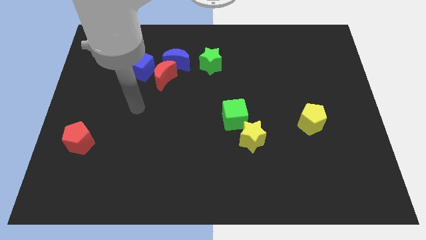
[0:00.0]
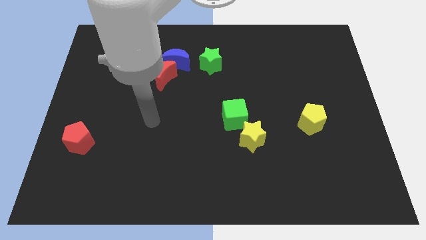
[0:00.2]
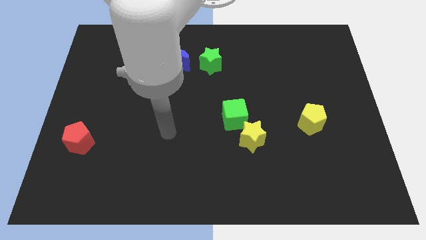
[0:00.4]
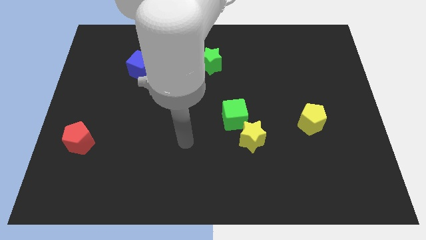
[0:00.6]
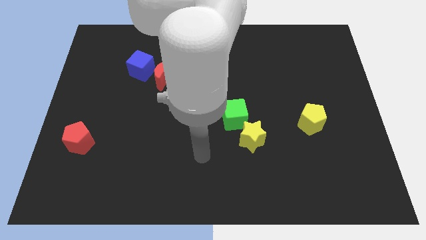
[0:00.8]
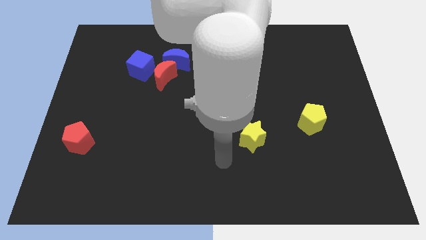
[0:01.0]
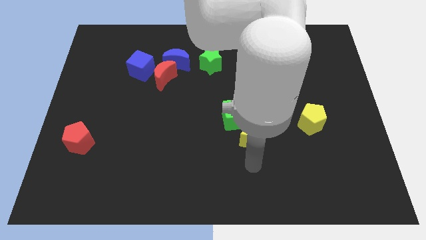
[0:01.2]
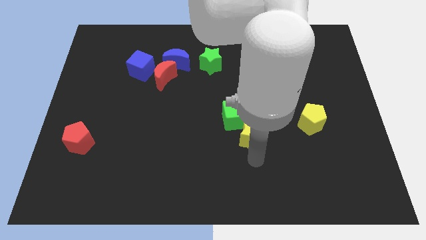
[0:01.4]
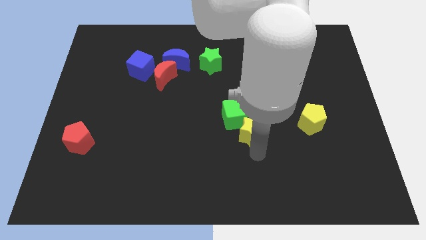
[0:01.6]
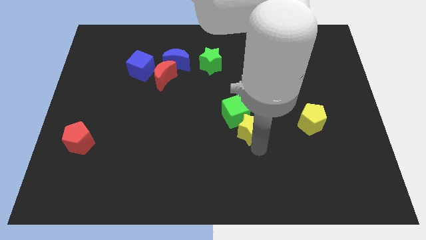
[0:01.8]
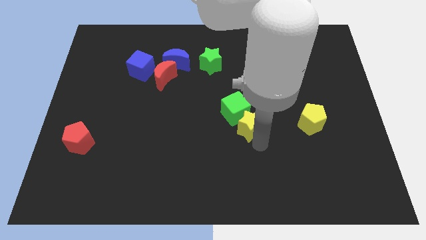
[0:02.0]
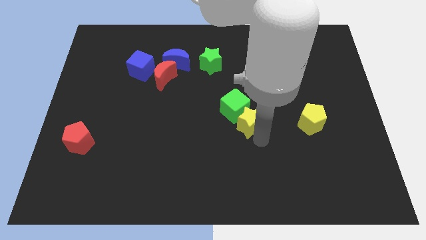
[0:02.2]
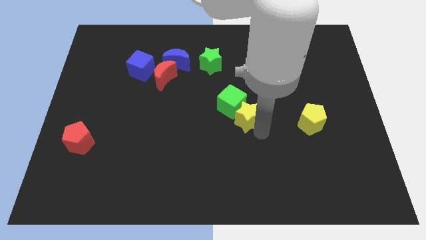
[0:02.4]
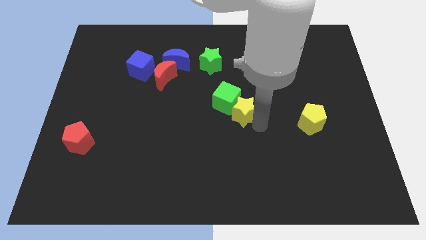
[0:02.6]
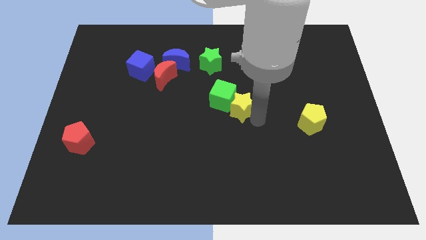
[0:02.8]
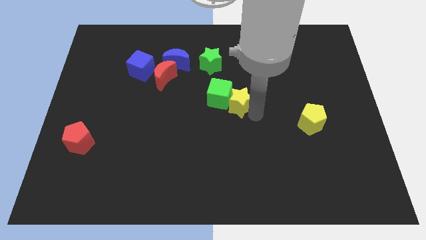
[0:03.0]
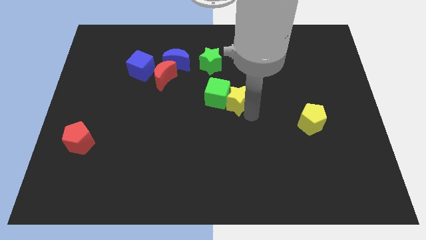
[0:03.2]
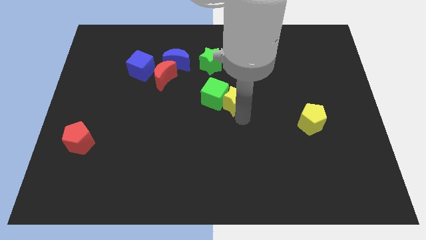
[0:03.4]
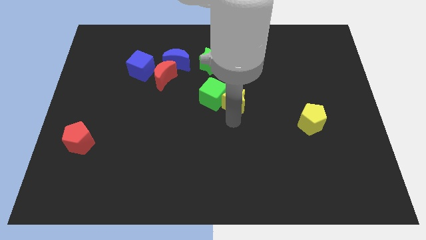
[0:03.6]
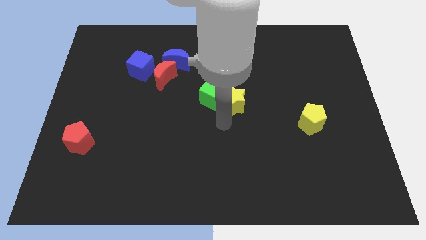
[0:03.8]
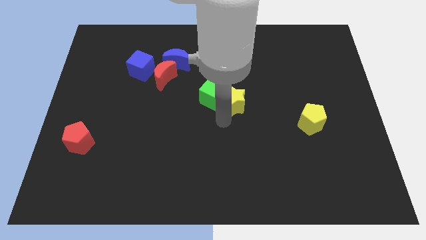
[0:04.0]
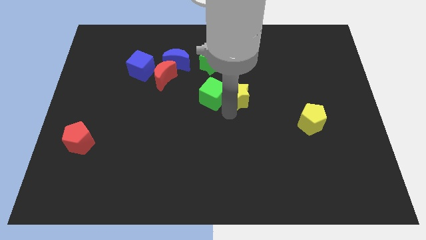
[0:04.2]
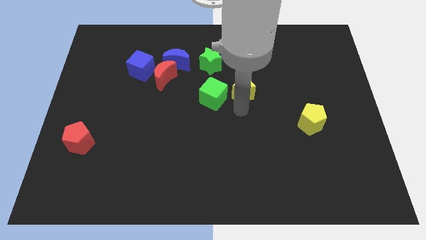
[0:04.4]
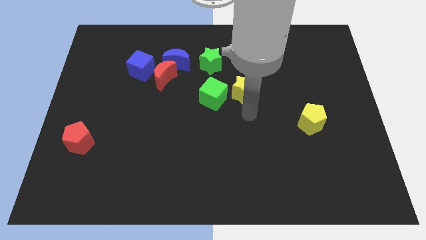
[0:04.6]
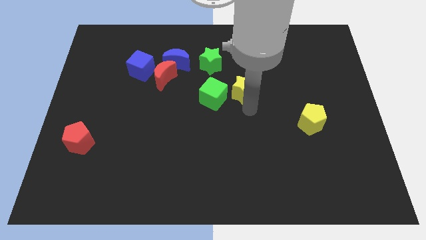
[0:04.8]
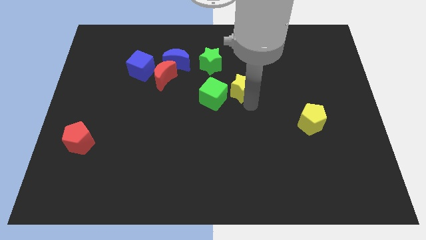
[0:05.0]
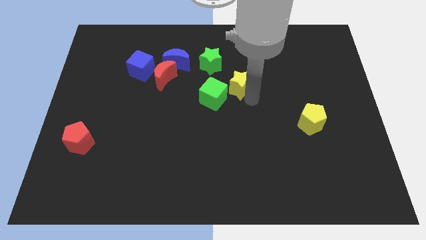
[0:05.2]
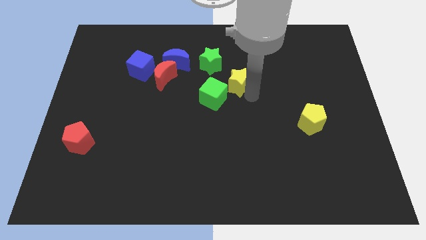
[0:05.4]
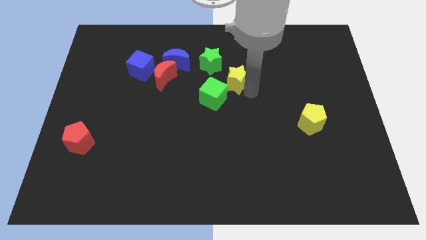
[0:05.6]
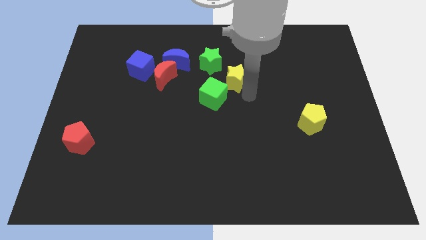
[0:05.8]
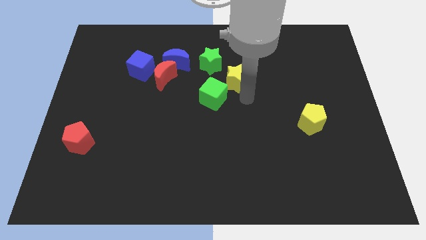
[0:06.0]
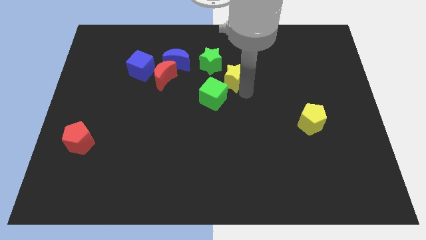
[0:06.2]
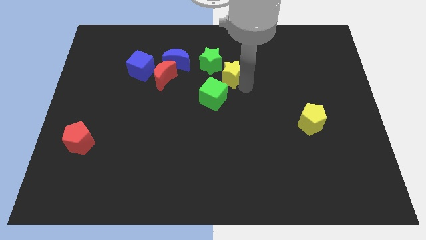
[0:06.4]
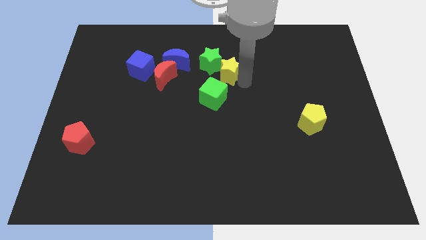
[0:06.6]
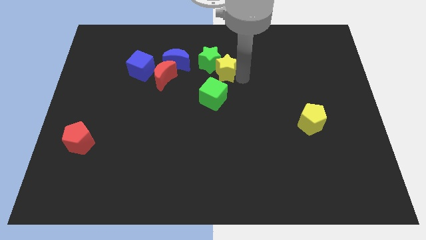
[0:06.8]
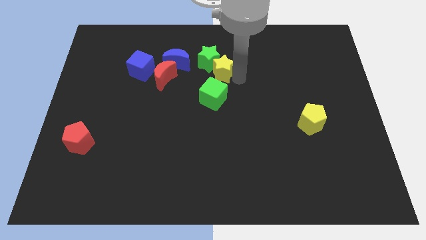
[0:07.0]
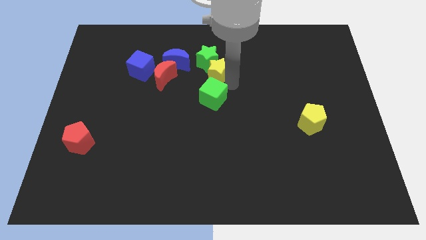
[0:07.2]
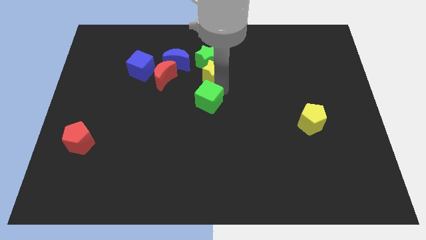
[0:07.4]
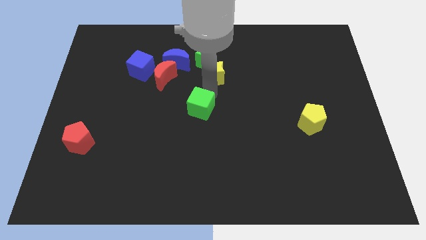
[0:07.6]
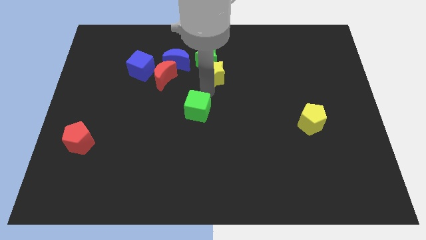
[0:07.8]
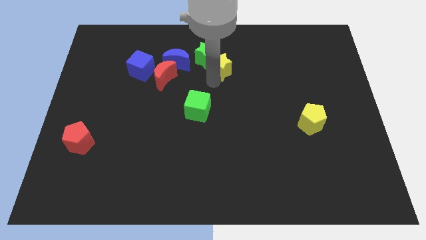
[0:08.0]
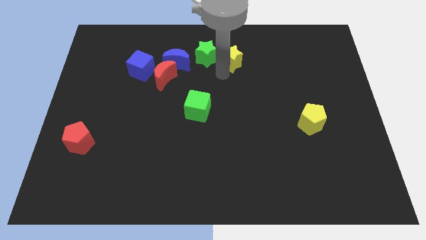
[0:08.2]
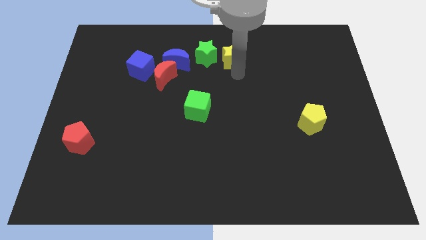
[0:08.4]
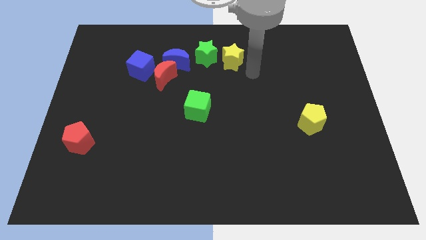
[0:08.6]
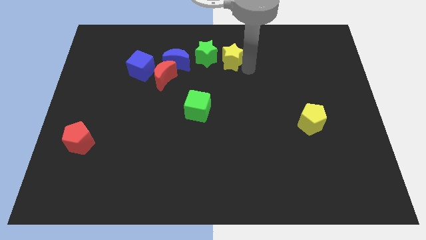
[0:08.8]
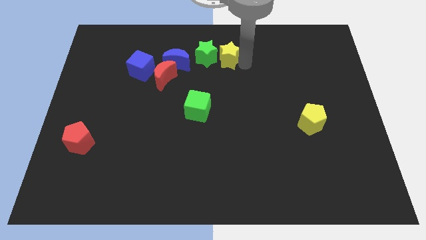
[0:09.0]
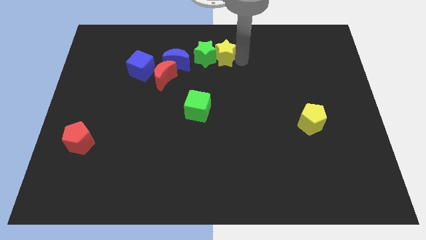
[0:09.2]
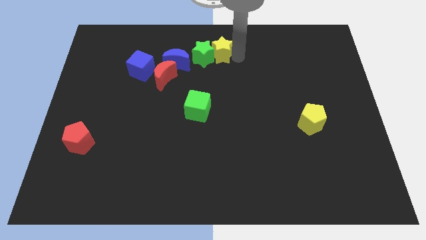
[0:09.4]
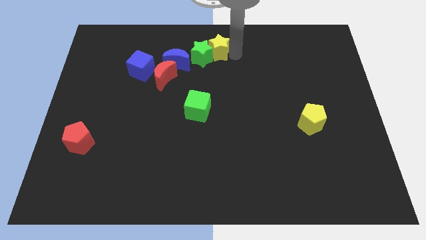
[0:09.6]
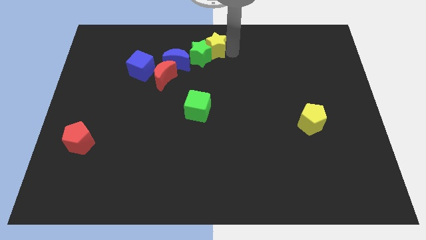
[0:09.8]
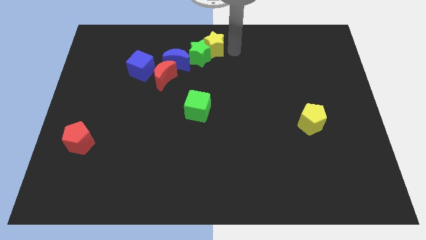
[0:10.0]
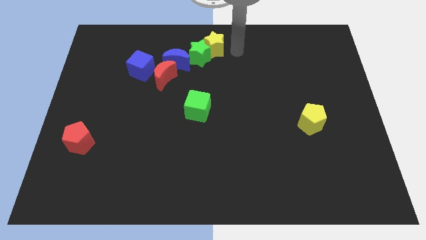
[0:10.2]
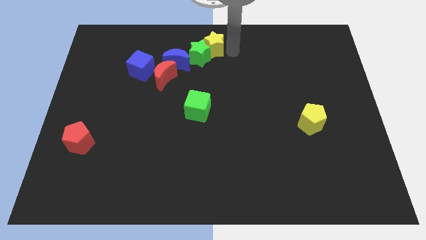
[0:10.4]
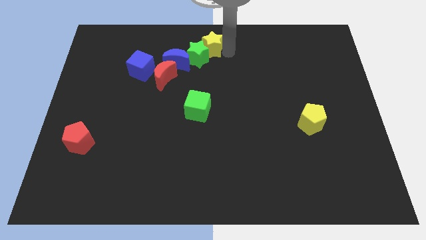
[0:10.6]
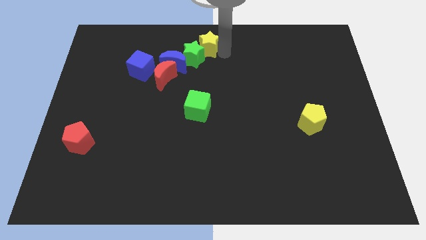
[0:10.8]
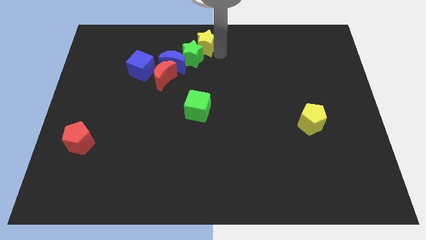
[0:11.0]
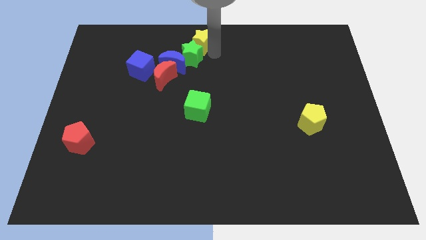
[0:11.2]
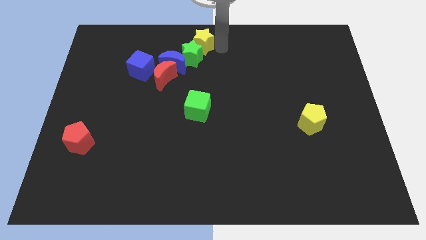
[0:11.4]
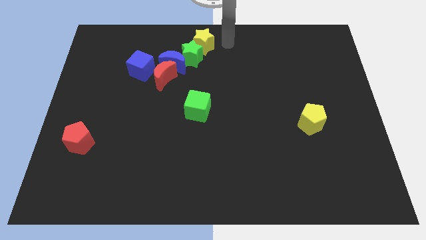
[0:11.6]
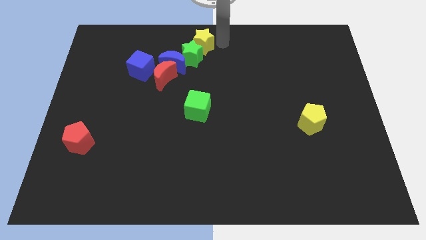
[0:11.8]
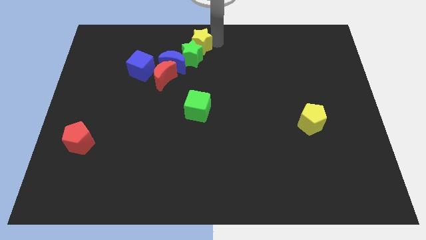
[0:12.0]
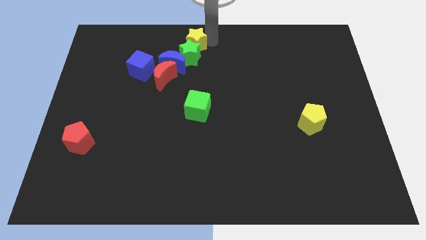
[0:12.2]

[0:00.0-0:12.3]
slide the yellow star upwards and left diagonally

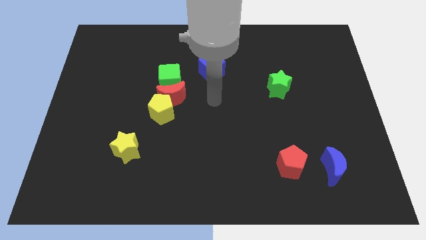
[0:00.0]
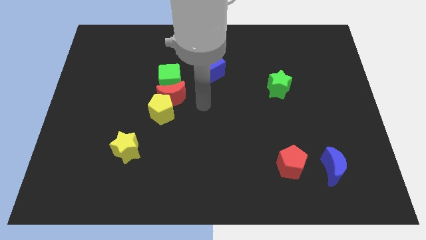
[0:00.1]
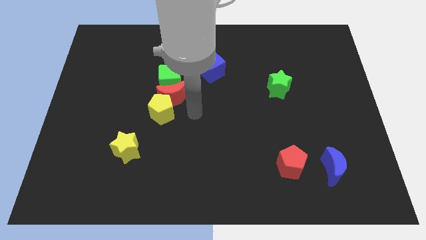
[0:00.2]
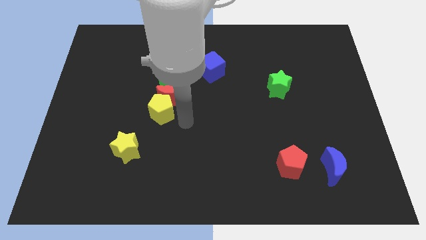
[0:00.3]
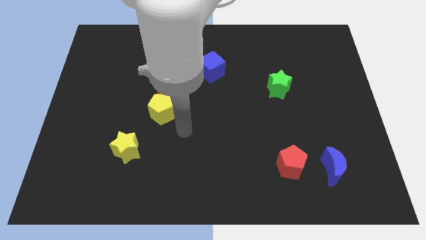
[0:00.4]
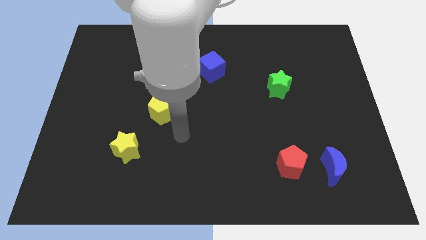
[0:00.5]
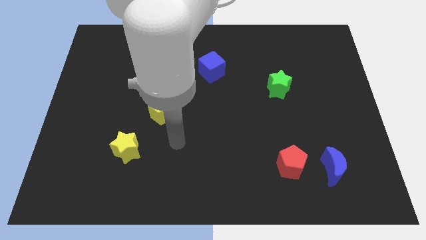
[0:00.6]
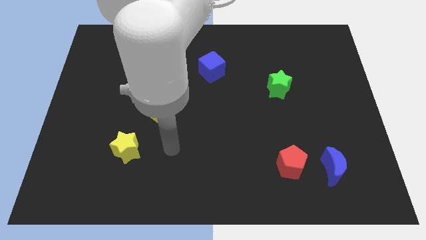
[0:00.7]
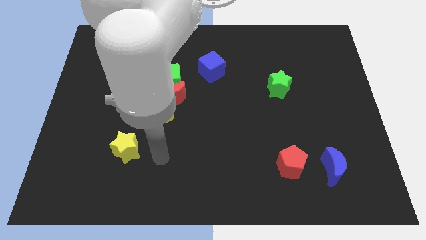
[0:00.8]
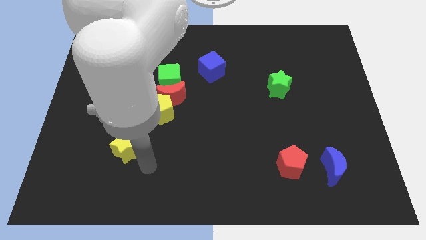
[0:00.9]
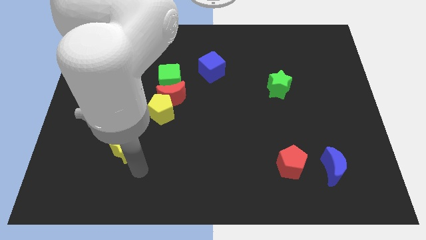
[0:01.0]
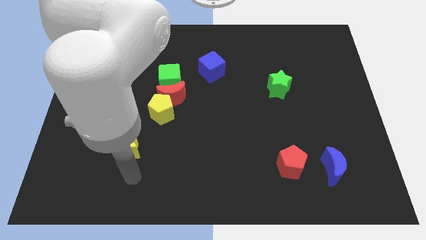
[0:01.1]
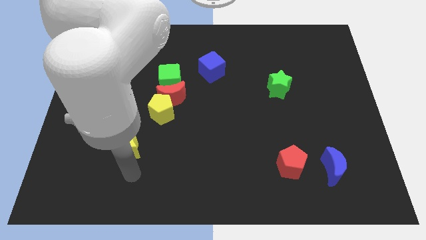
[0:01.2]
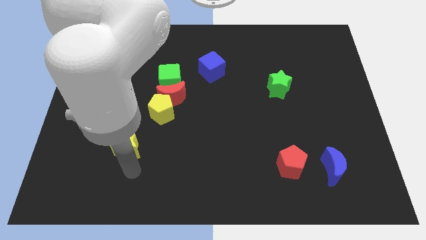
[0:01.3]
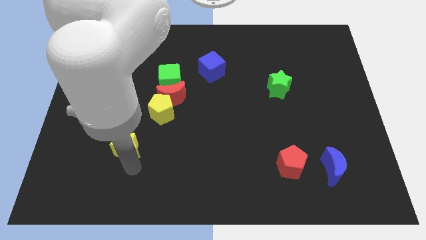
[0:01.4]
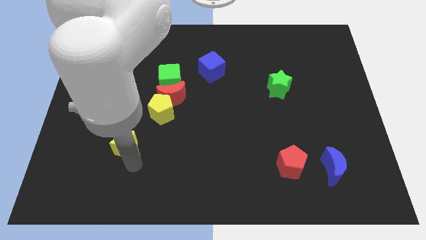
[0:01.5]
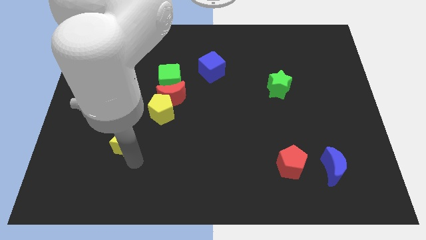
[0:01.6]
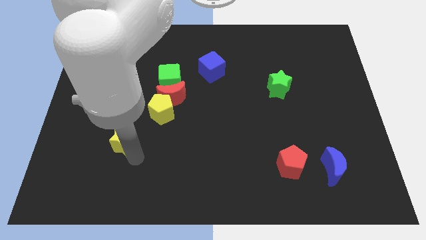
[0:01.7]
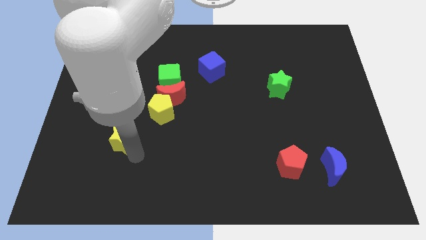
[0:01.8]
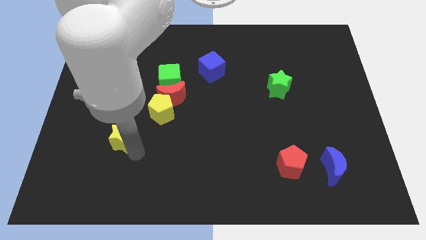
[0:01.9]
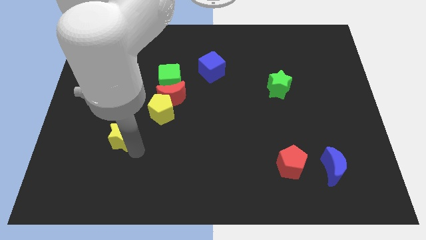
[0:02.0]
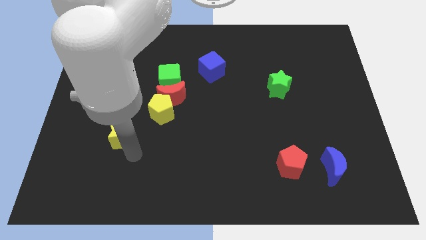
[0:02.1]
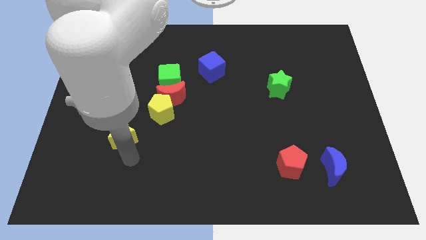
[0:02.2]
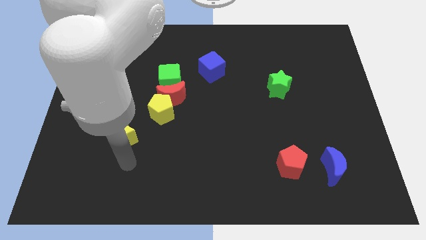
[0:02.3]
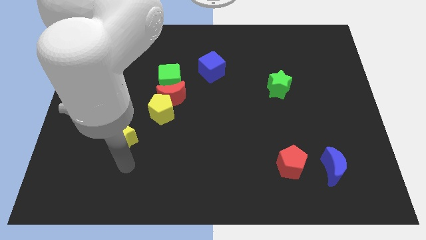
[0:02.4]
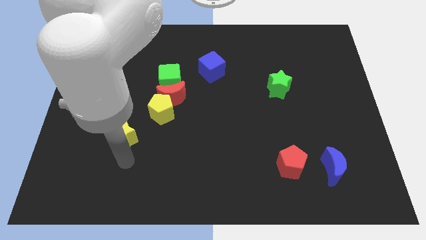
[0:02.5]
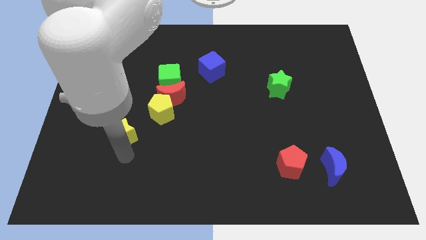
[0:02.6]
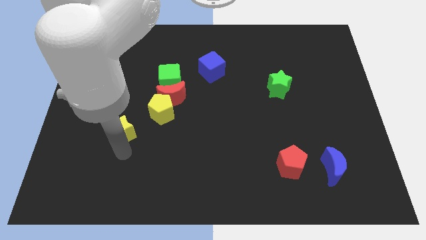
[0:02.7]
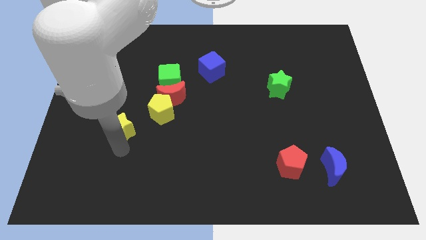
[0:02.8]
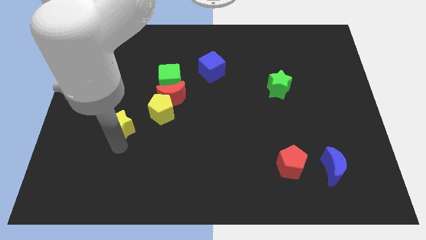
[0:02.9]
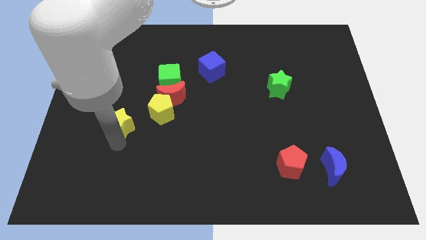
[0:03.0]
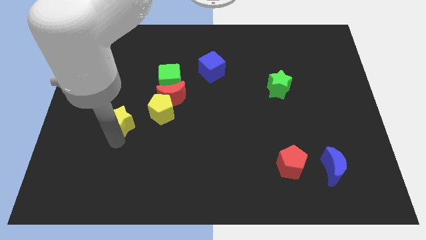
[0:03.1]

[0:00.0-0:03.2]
slightly slide the yellow star upwards
